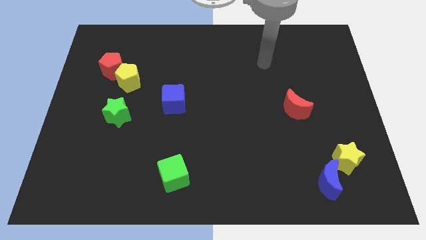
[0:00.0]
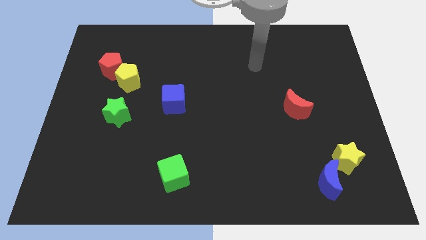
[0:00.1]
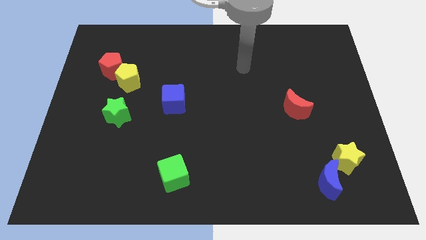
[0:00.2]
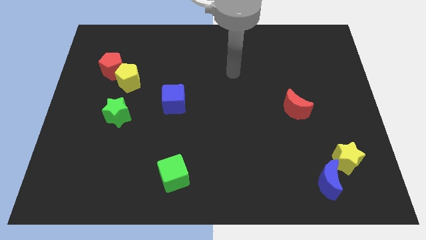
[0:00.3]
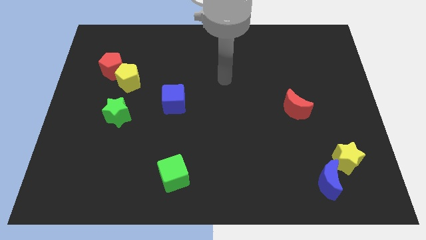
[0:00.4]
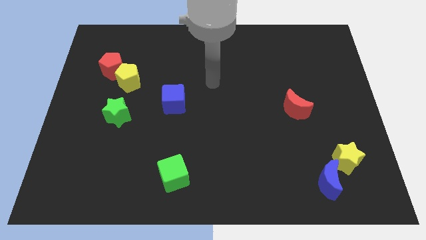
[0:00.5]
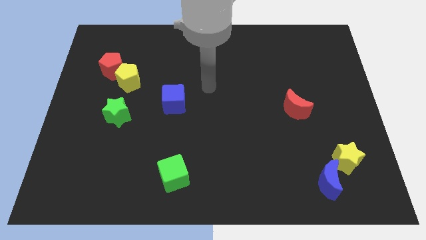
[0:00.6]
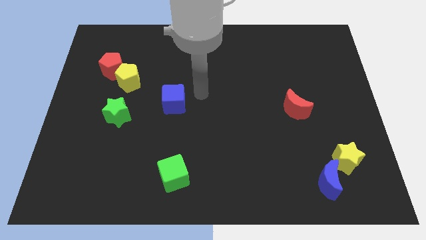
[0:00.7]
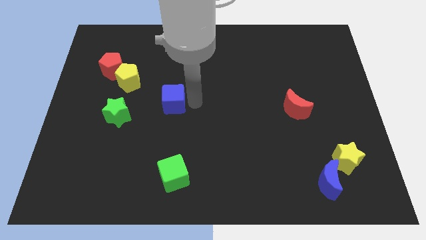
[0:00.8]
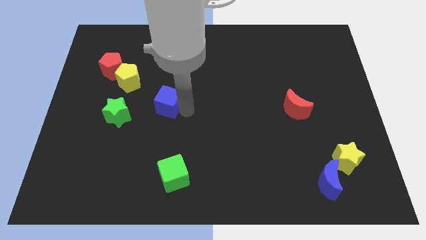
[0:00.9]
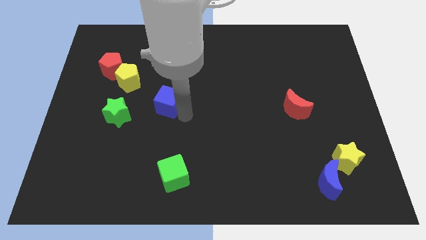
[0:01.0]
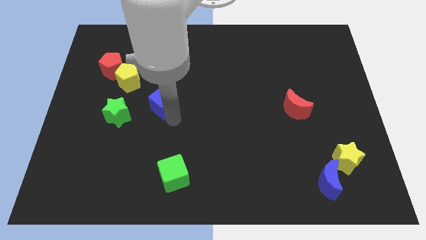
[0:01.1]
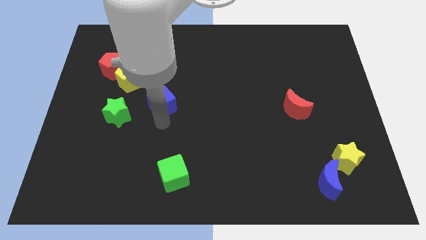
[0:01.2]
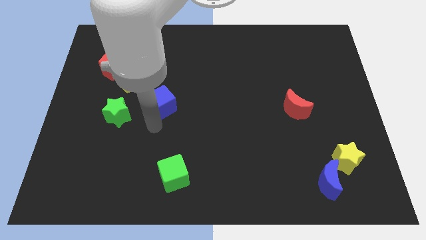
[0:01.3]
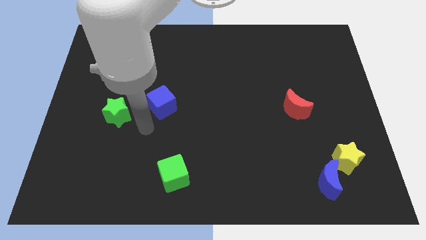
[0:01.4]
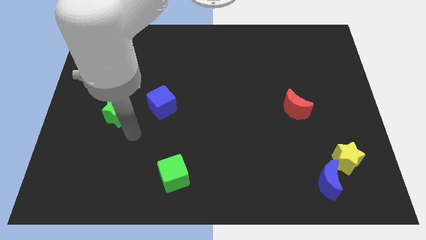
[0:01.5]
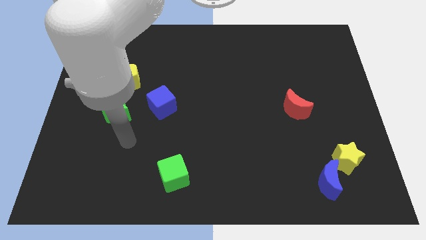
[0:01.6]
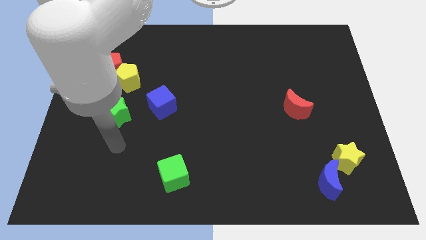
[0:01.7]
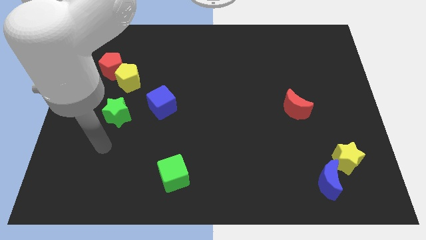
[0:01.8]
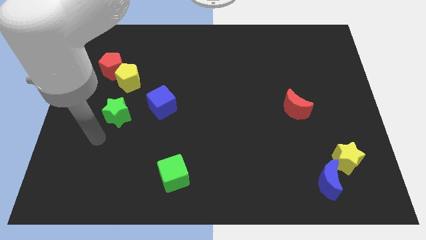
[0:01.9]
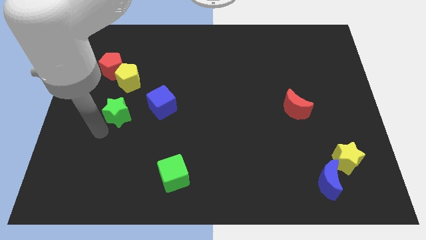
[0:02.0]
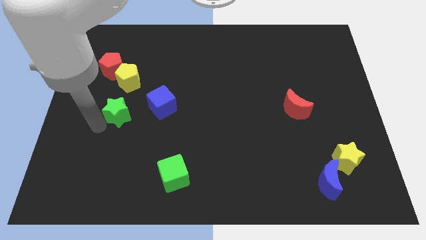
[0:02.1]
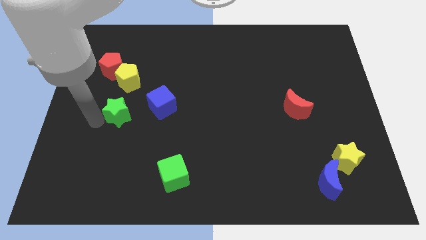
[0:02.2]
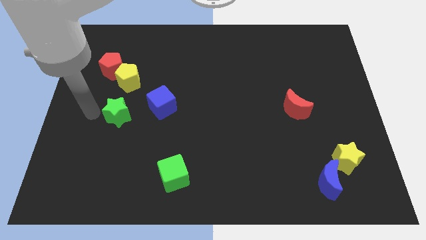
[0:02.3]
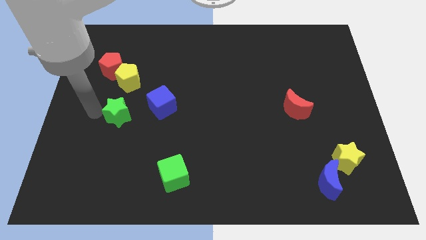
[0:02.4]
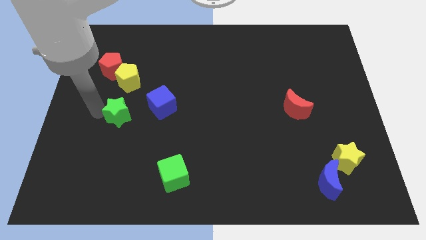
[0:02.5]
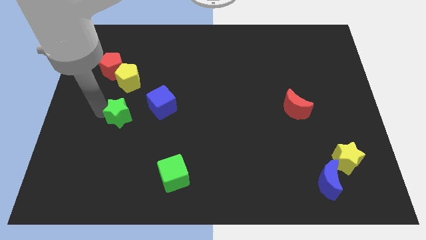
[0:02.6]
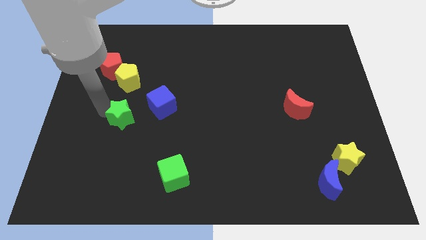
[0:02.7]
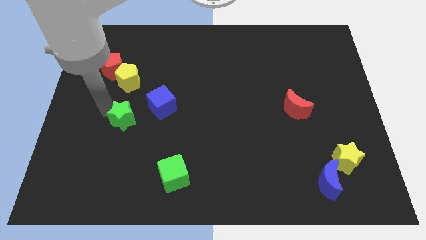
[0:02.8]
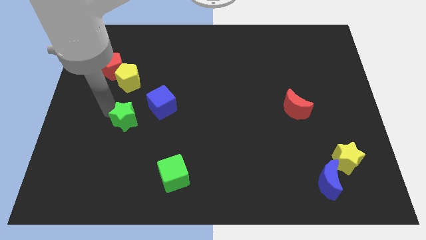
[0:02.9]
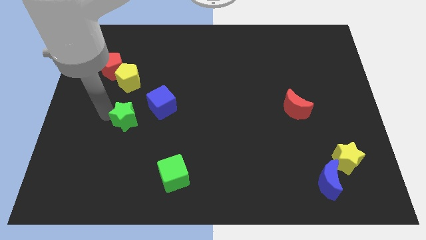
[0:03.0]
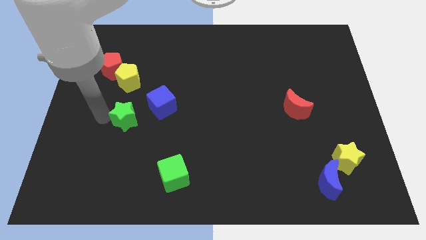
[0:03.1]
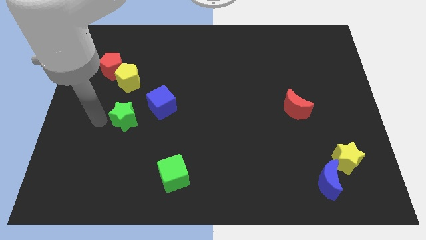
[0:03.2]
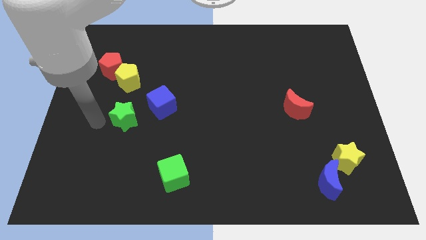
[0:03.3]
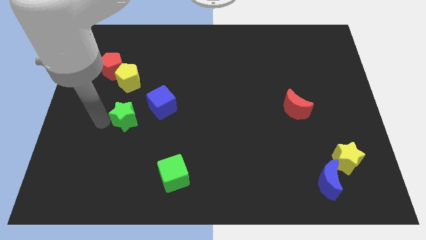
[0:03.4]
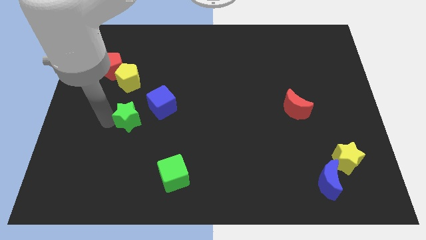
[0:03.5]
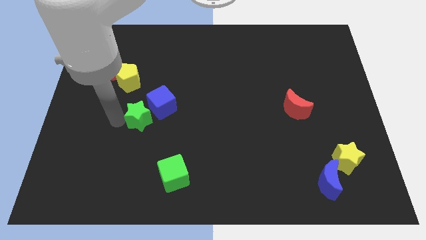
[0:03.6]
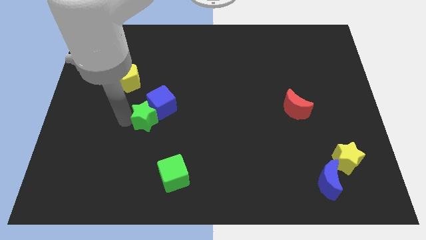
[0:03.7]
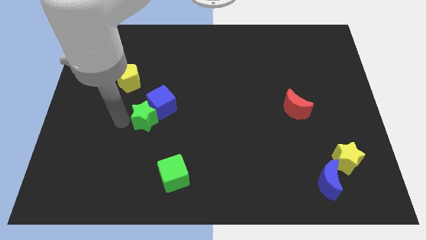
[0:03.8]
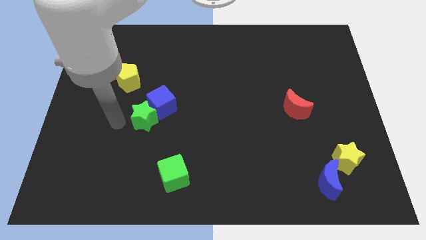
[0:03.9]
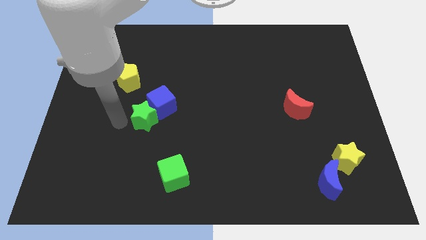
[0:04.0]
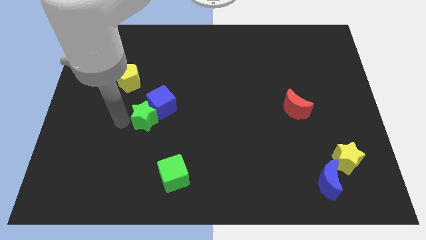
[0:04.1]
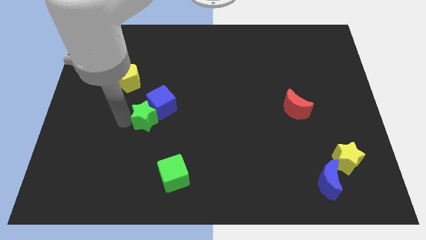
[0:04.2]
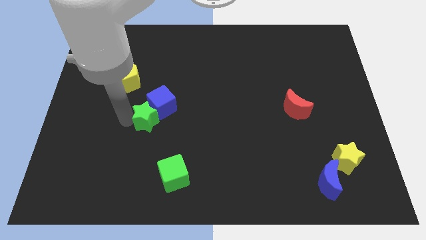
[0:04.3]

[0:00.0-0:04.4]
slide the green star a bit right

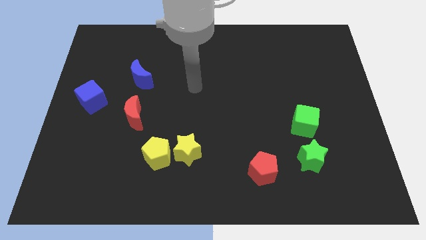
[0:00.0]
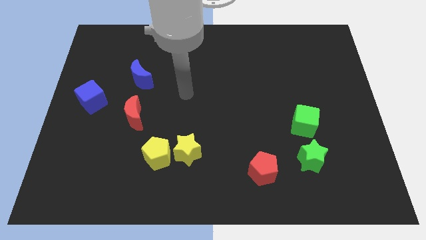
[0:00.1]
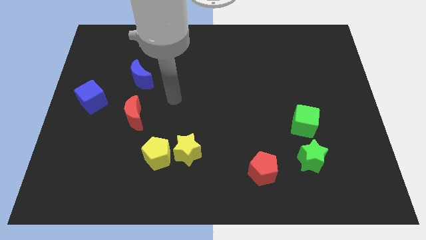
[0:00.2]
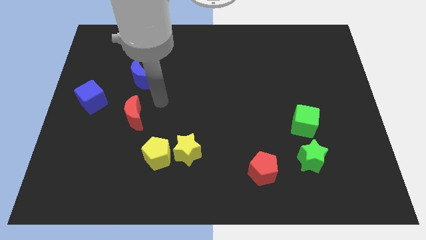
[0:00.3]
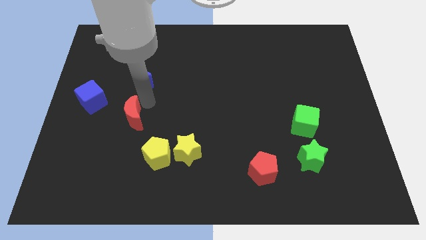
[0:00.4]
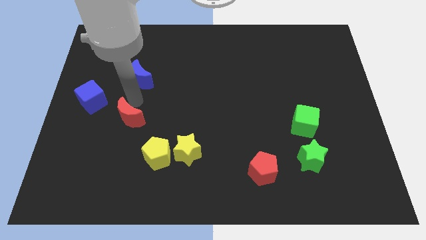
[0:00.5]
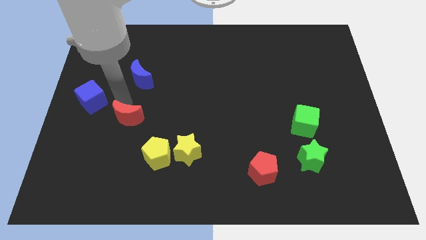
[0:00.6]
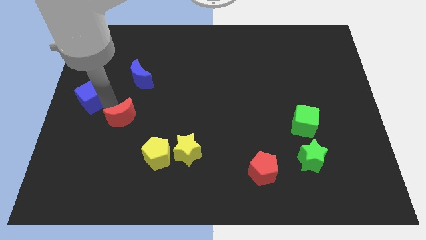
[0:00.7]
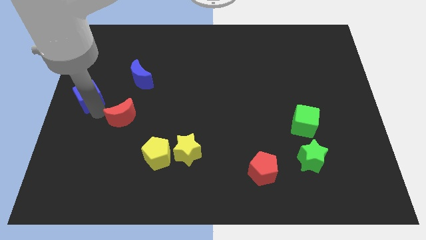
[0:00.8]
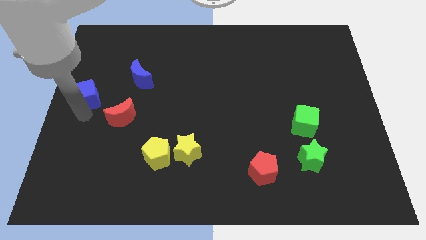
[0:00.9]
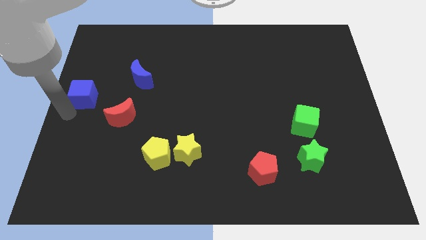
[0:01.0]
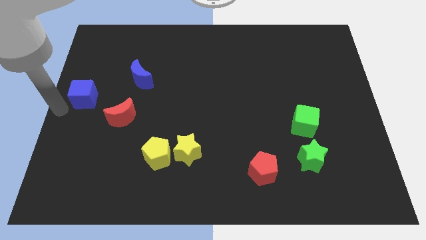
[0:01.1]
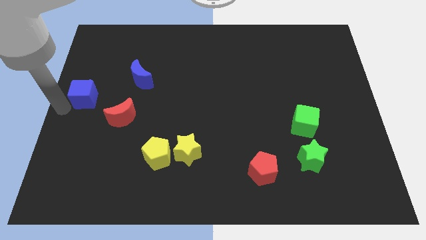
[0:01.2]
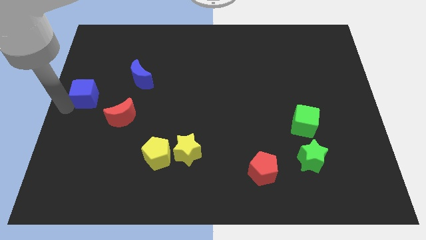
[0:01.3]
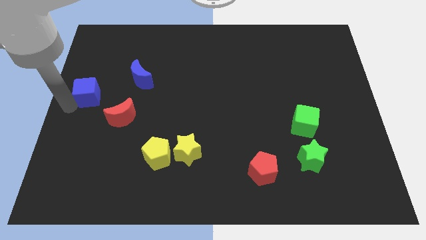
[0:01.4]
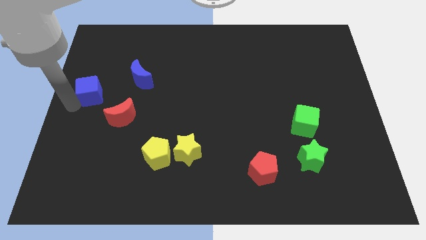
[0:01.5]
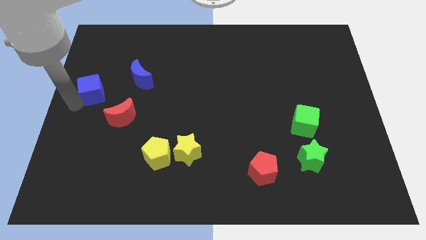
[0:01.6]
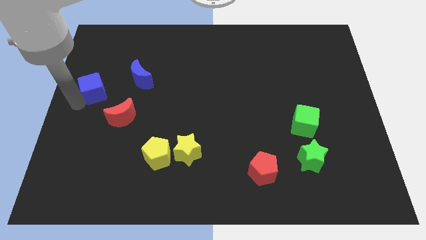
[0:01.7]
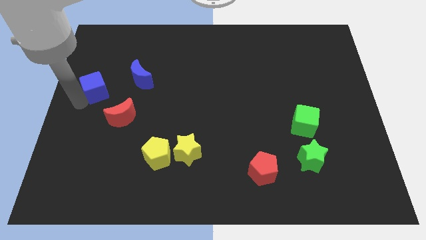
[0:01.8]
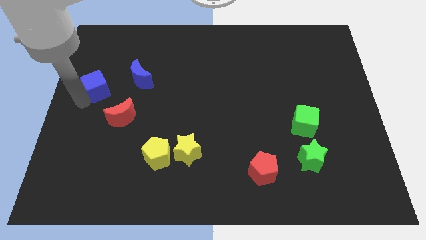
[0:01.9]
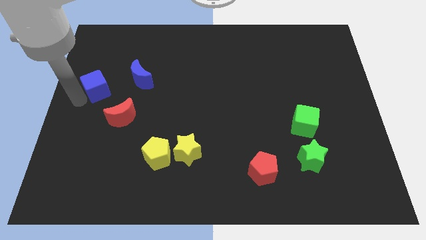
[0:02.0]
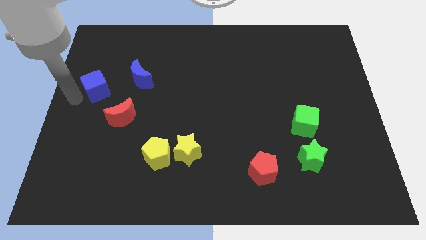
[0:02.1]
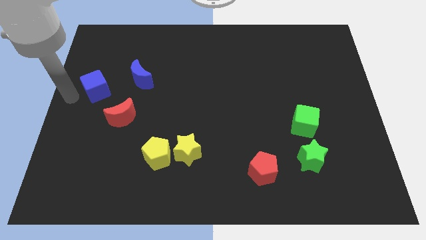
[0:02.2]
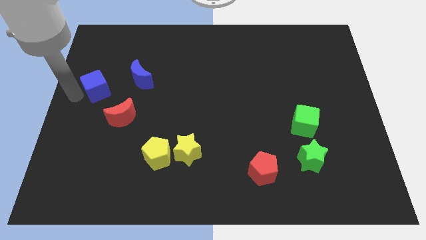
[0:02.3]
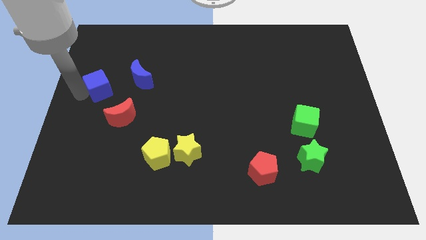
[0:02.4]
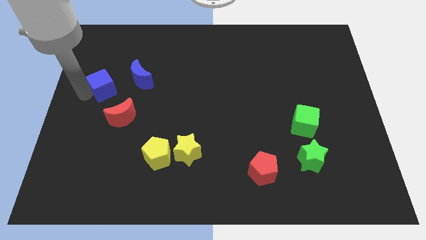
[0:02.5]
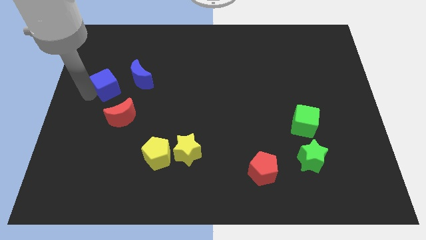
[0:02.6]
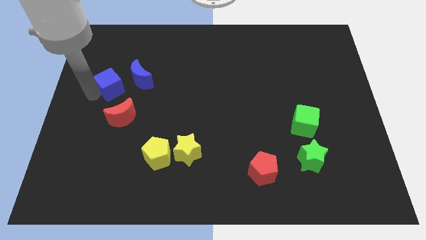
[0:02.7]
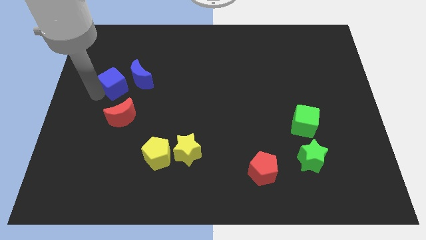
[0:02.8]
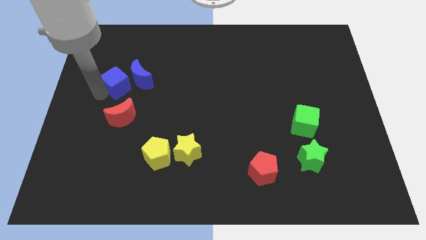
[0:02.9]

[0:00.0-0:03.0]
slightly slide the blue cube up and right diagonally

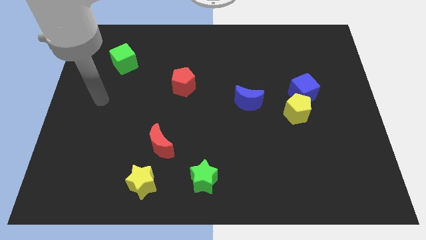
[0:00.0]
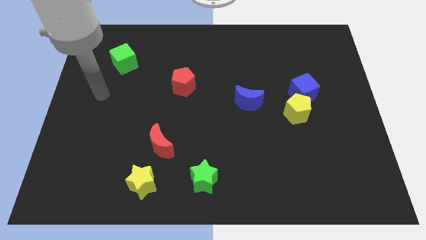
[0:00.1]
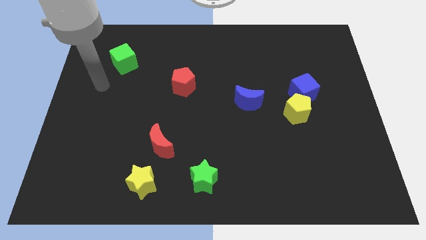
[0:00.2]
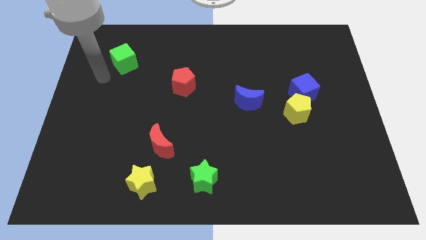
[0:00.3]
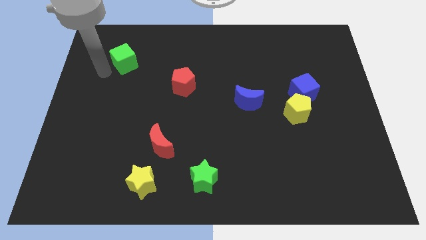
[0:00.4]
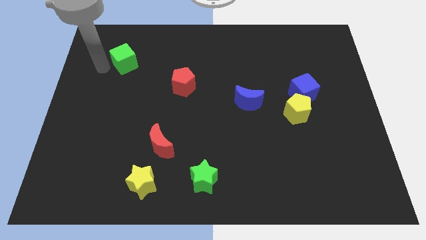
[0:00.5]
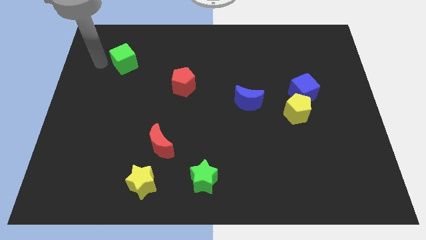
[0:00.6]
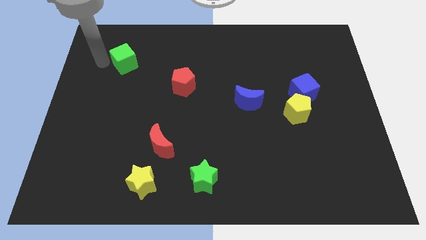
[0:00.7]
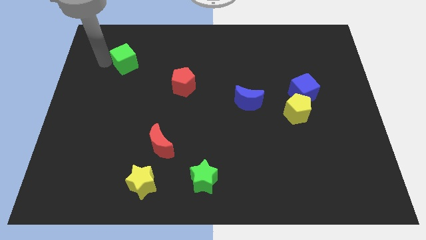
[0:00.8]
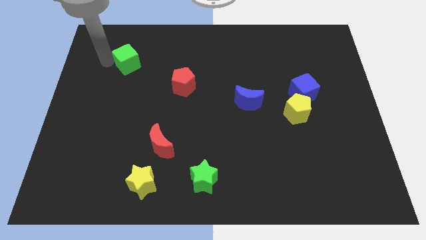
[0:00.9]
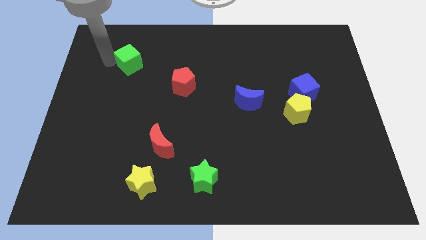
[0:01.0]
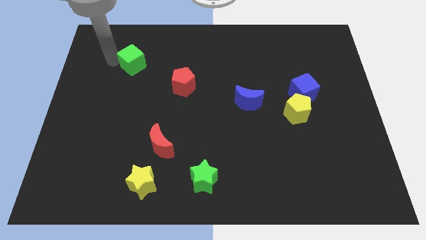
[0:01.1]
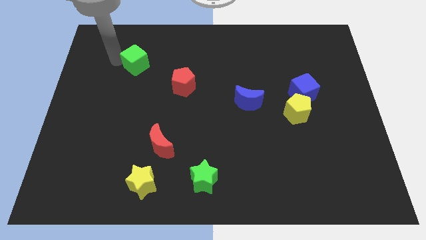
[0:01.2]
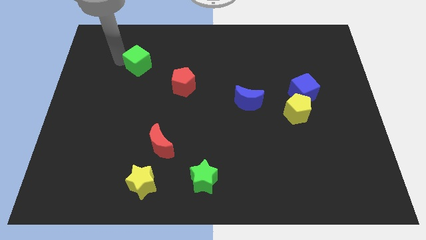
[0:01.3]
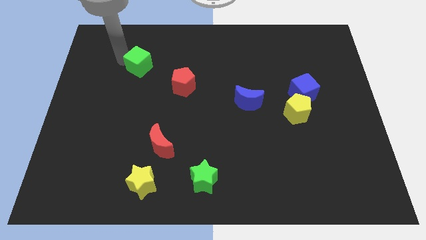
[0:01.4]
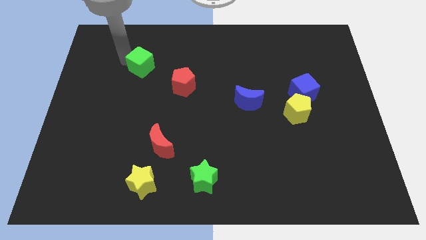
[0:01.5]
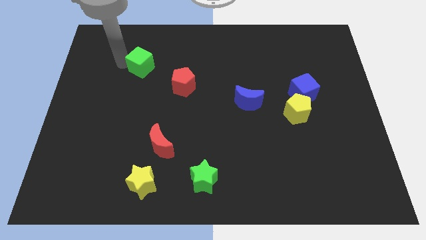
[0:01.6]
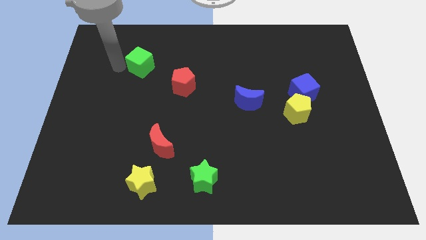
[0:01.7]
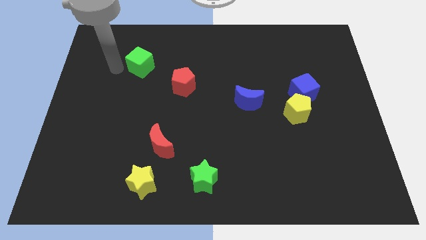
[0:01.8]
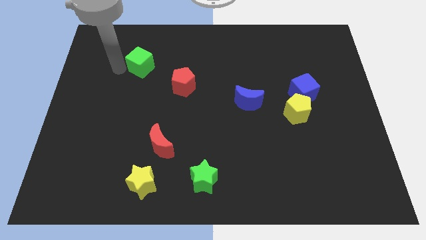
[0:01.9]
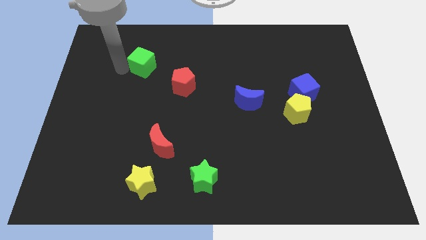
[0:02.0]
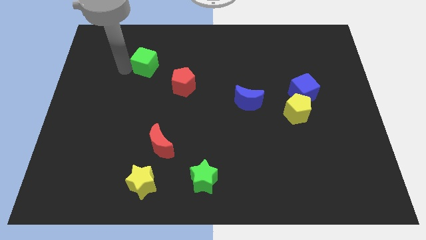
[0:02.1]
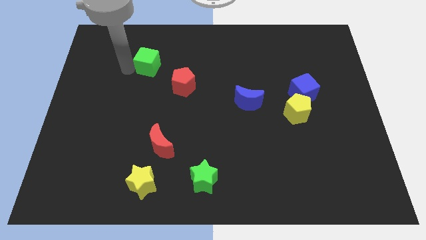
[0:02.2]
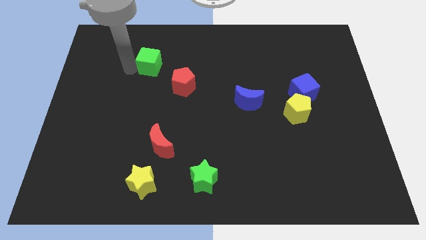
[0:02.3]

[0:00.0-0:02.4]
push the green cube to the right a little bit
